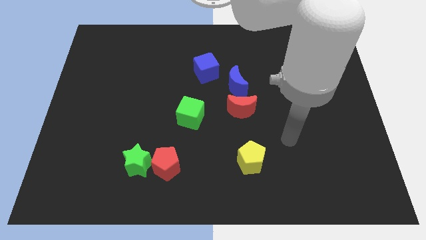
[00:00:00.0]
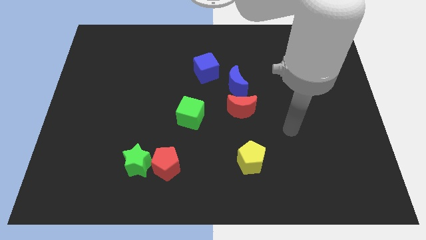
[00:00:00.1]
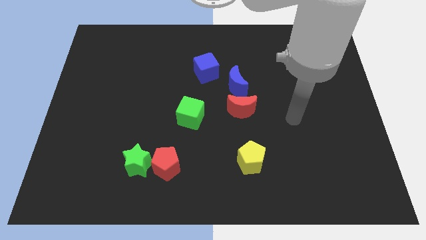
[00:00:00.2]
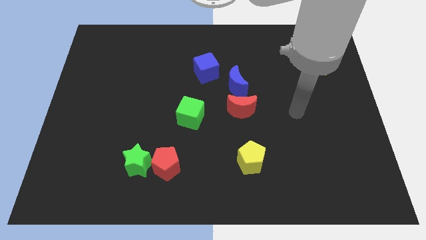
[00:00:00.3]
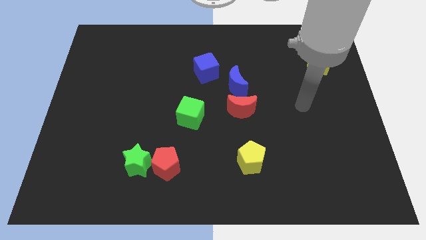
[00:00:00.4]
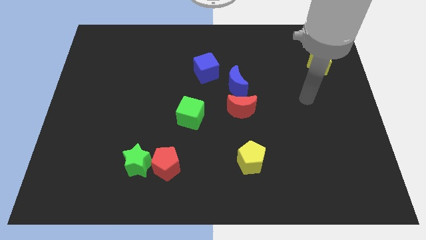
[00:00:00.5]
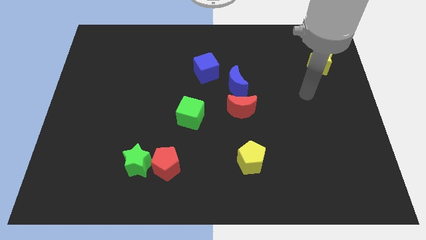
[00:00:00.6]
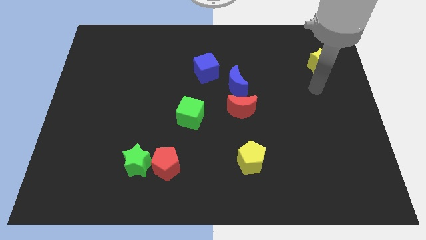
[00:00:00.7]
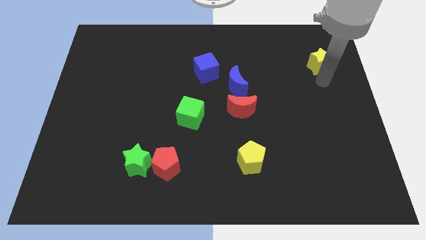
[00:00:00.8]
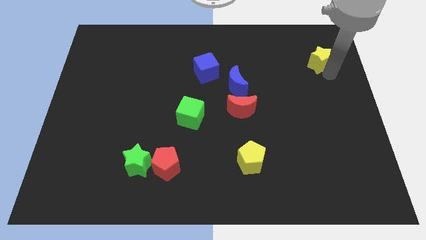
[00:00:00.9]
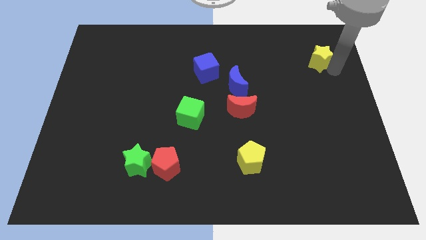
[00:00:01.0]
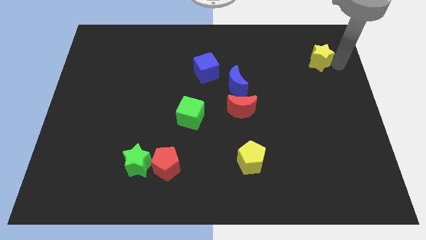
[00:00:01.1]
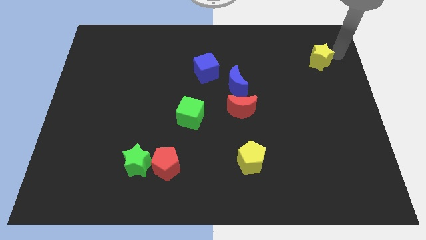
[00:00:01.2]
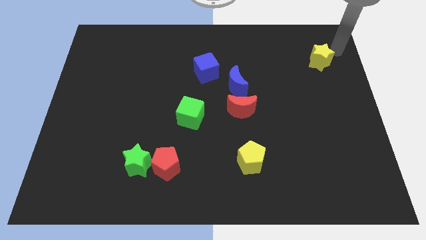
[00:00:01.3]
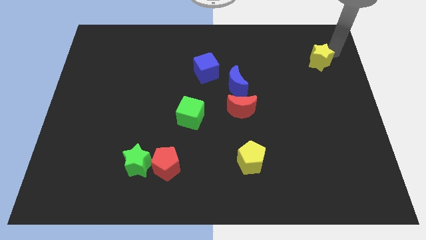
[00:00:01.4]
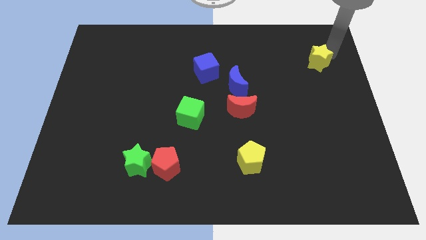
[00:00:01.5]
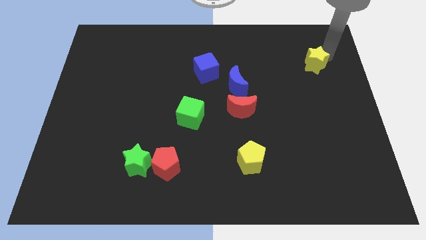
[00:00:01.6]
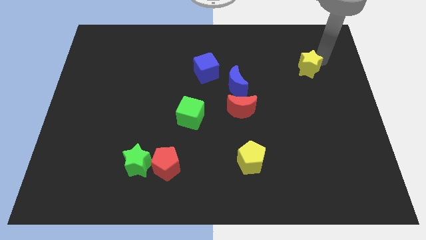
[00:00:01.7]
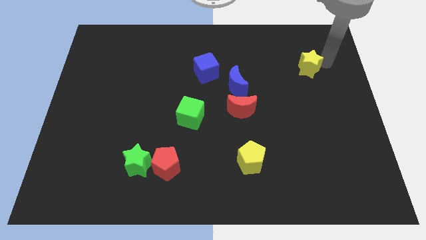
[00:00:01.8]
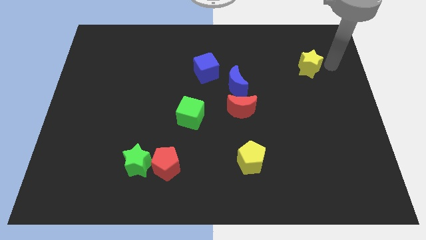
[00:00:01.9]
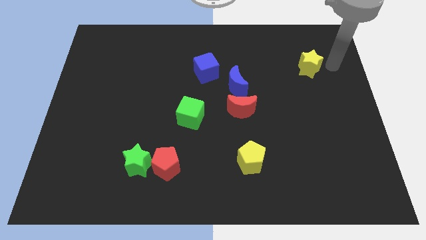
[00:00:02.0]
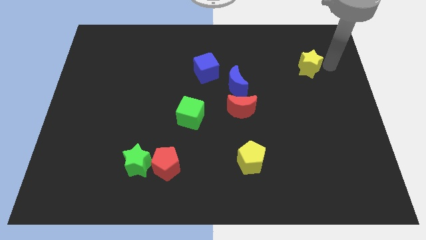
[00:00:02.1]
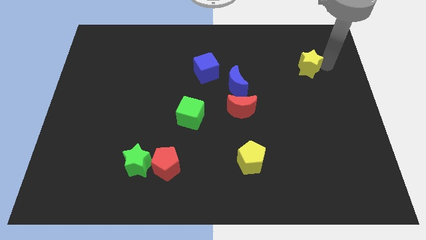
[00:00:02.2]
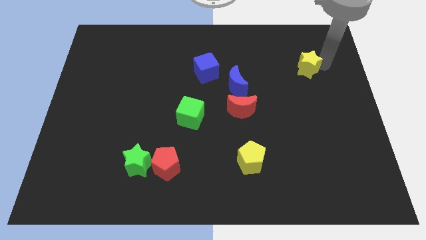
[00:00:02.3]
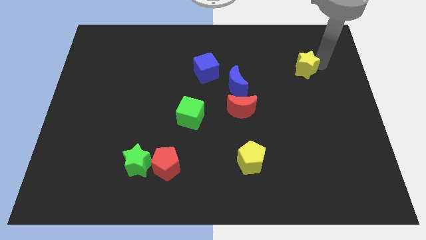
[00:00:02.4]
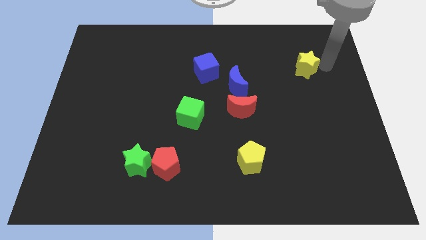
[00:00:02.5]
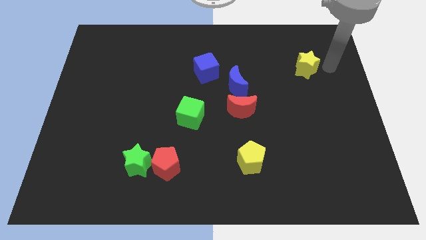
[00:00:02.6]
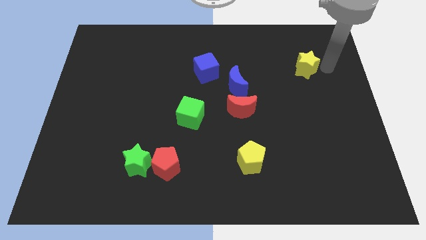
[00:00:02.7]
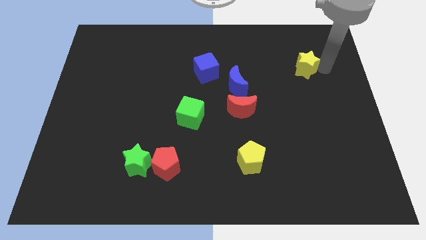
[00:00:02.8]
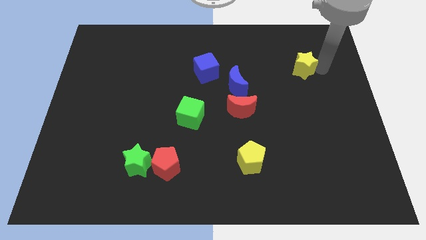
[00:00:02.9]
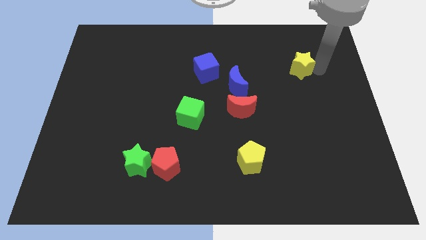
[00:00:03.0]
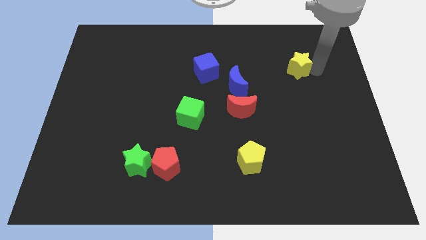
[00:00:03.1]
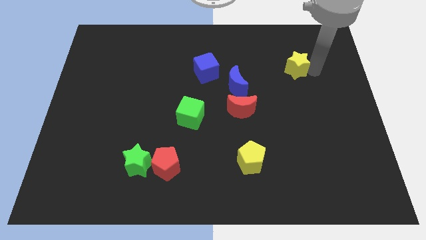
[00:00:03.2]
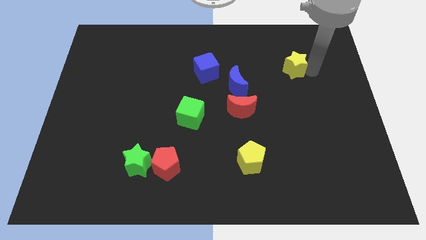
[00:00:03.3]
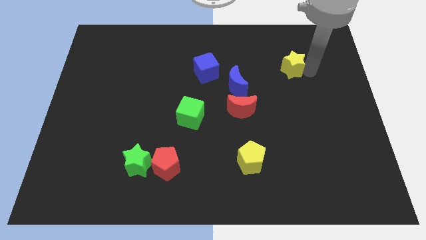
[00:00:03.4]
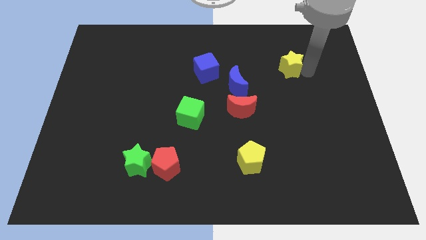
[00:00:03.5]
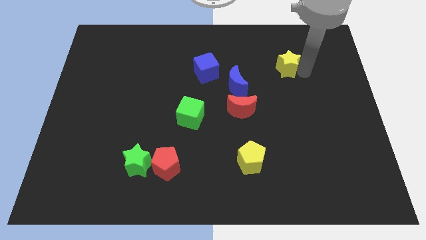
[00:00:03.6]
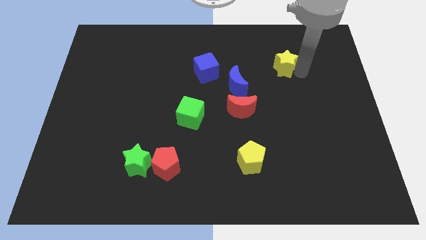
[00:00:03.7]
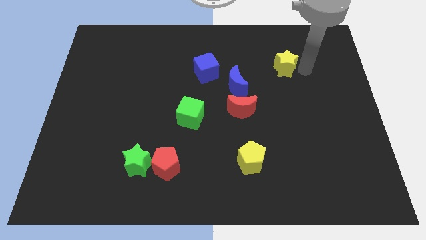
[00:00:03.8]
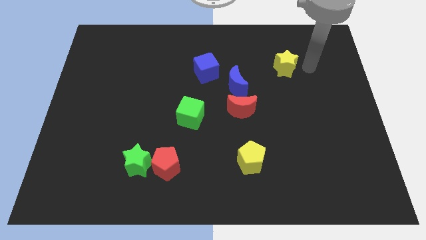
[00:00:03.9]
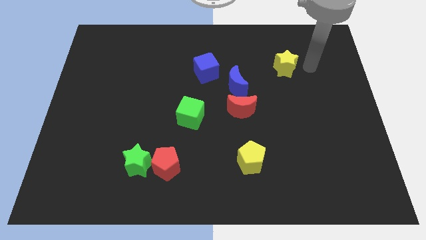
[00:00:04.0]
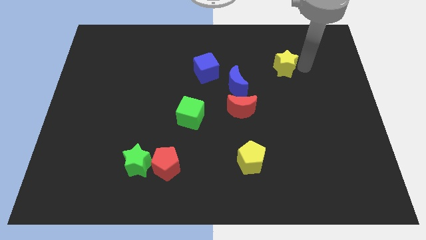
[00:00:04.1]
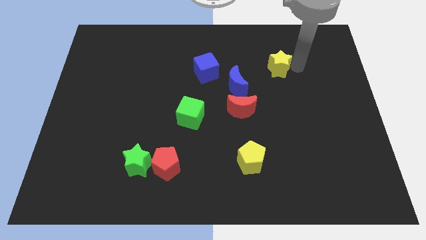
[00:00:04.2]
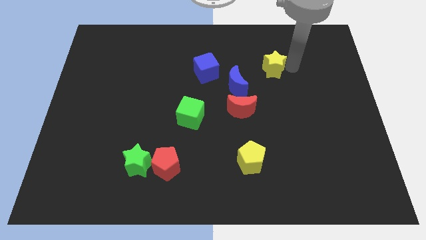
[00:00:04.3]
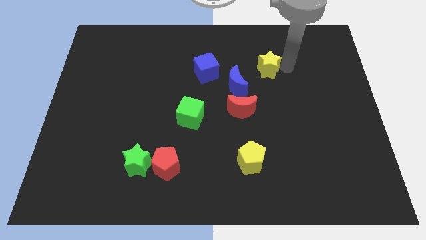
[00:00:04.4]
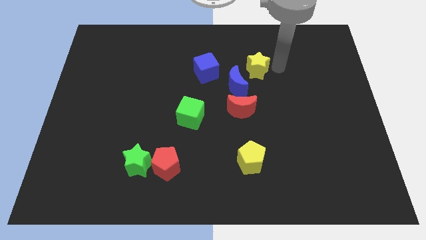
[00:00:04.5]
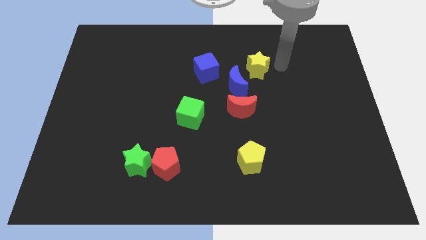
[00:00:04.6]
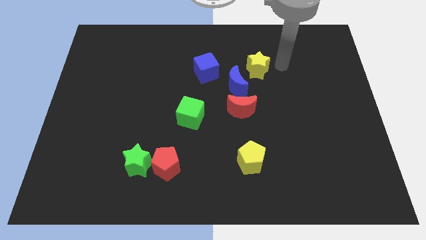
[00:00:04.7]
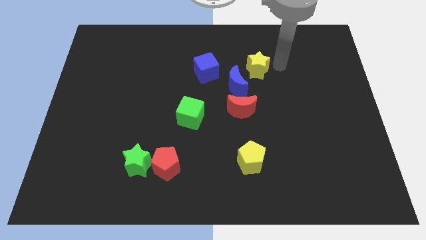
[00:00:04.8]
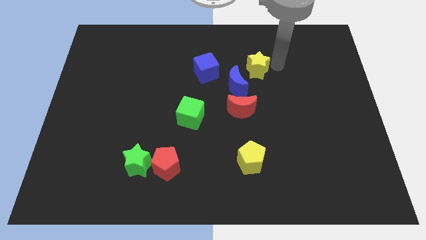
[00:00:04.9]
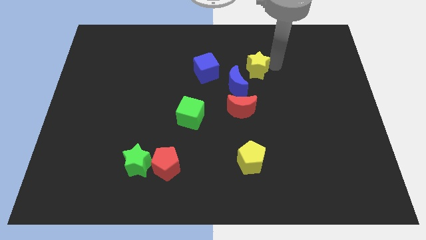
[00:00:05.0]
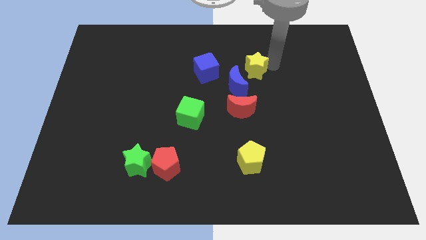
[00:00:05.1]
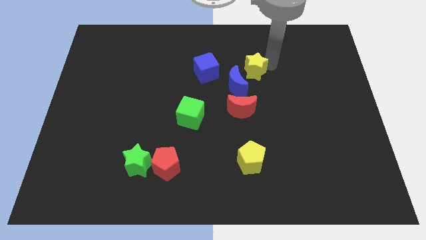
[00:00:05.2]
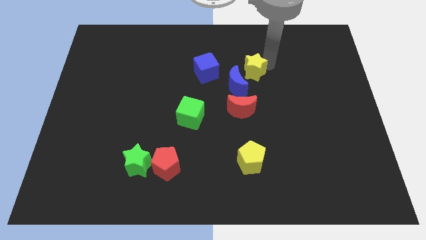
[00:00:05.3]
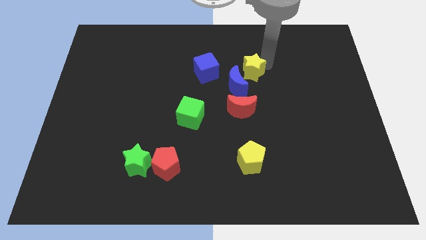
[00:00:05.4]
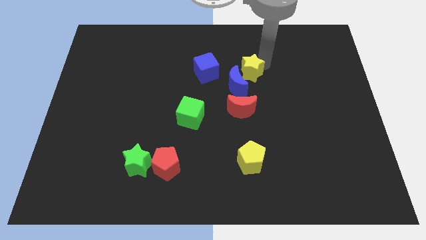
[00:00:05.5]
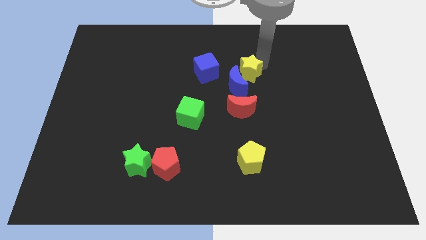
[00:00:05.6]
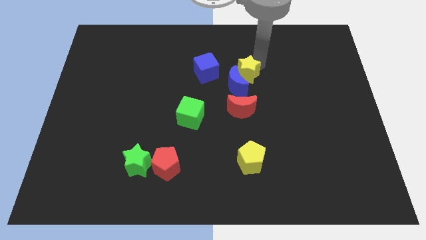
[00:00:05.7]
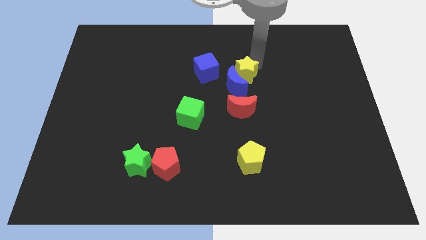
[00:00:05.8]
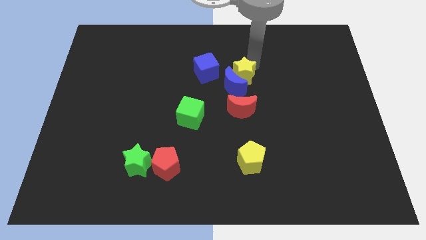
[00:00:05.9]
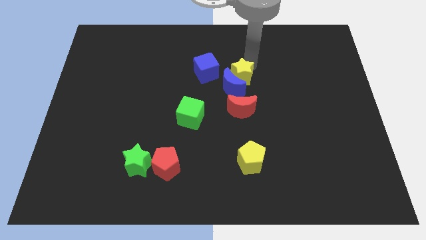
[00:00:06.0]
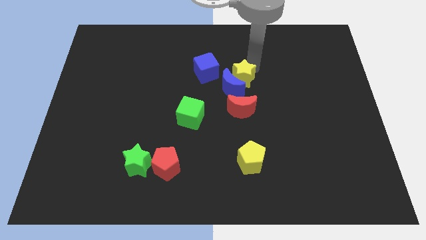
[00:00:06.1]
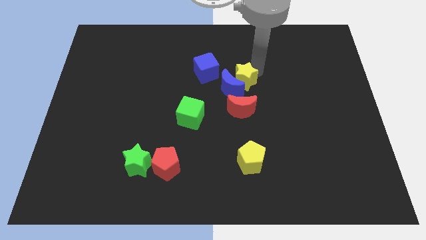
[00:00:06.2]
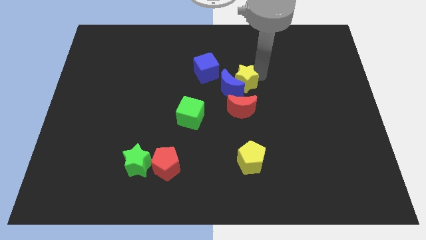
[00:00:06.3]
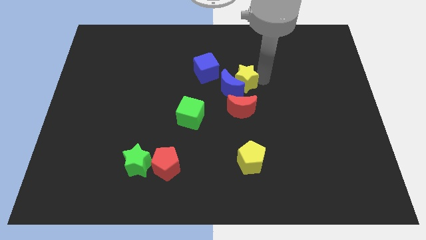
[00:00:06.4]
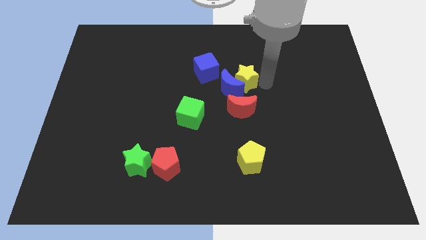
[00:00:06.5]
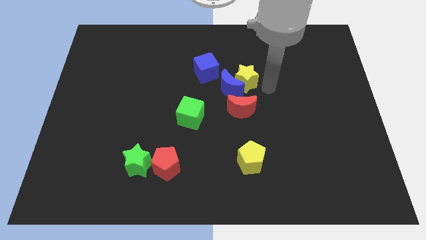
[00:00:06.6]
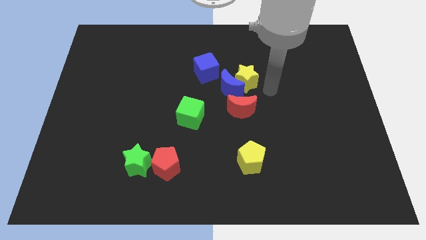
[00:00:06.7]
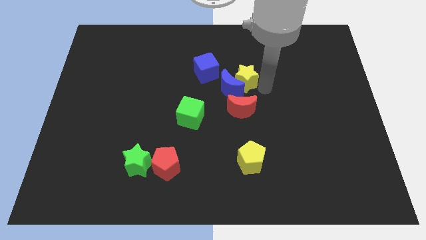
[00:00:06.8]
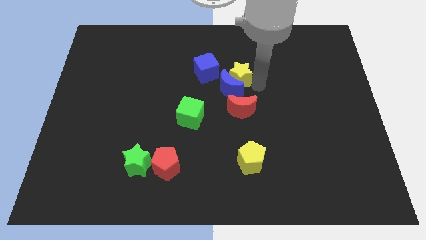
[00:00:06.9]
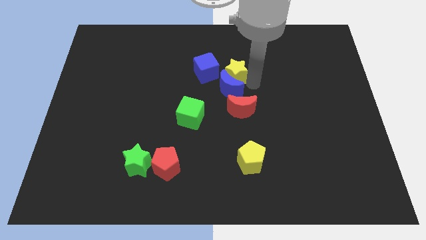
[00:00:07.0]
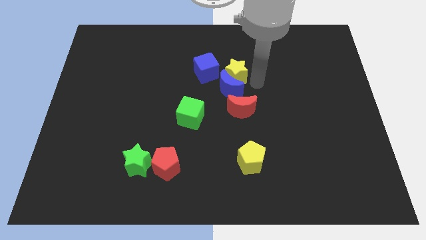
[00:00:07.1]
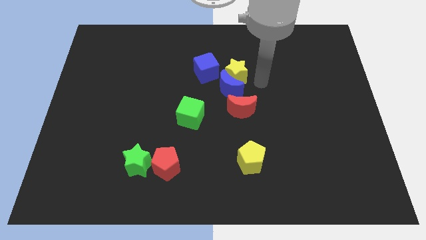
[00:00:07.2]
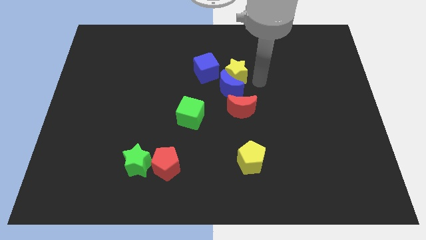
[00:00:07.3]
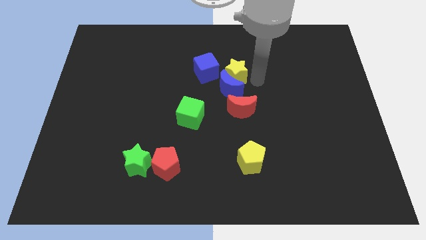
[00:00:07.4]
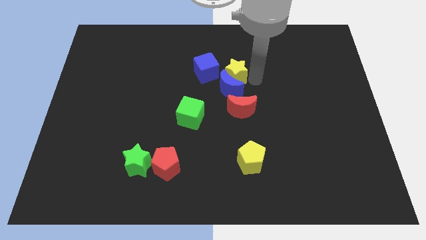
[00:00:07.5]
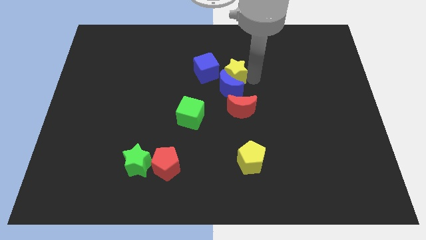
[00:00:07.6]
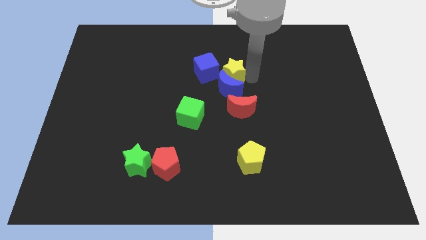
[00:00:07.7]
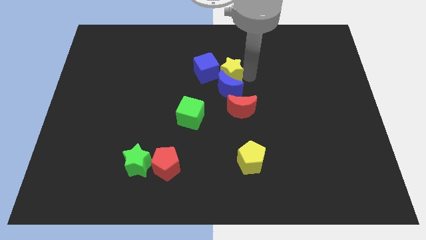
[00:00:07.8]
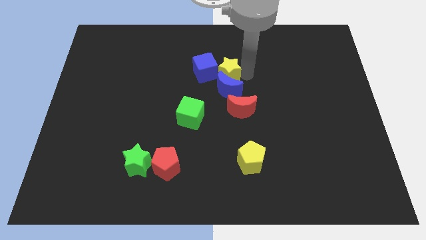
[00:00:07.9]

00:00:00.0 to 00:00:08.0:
slide the yellow star close to the blue cube
